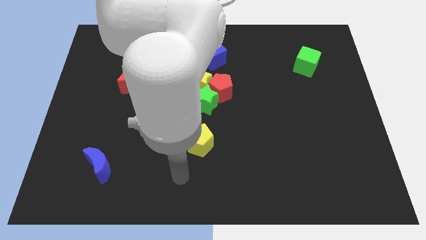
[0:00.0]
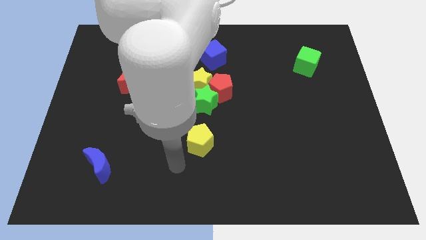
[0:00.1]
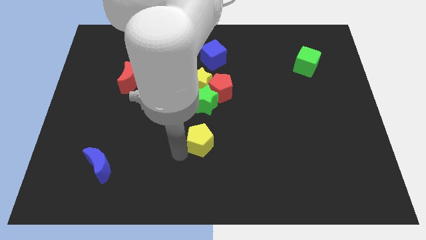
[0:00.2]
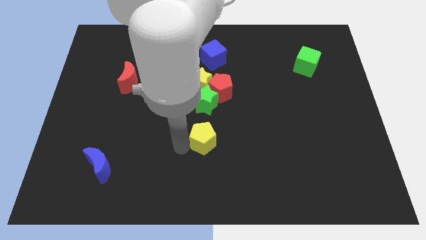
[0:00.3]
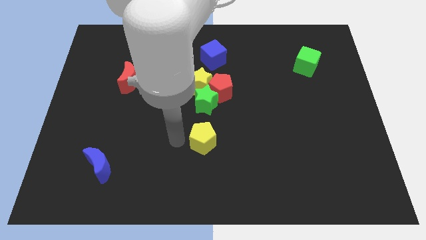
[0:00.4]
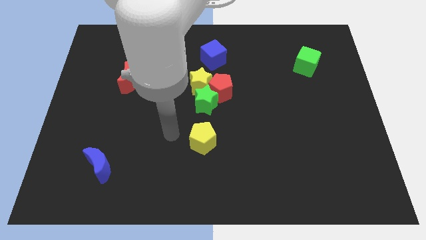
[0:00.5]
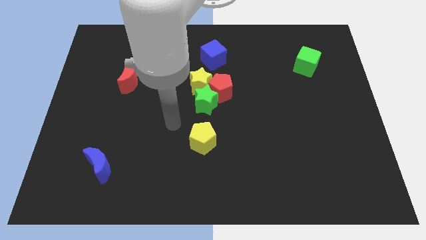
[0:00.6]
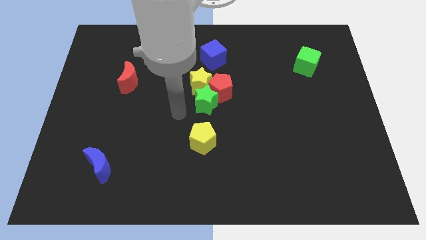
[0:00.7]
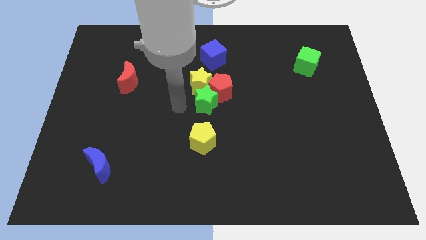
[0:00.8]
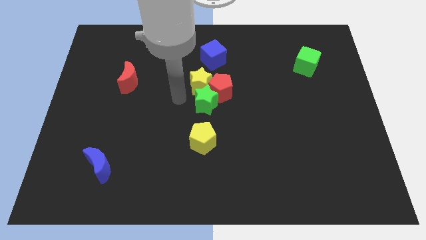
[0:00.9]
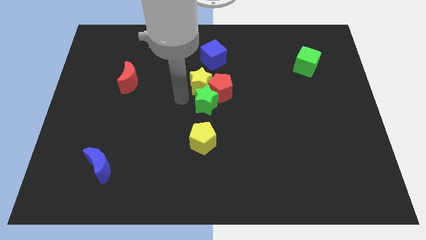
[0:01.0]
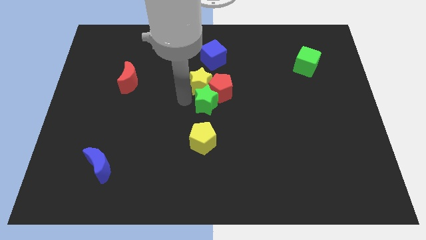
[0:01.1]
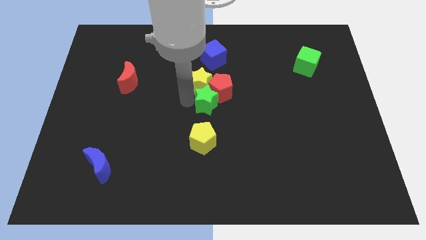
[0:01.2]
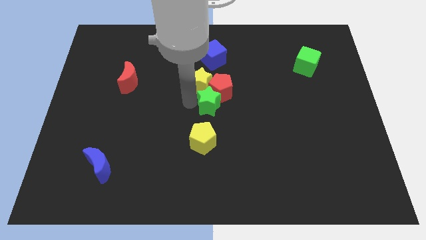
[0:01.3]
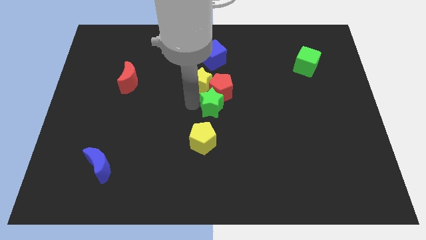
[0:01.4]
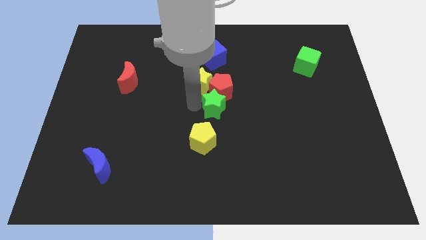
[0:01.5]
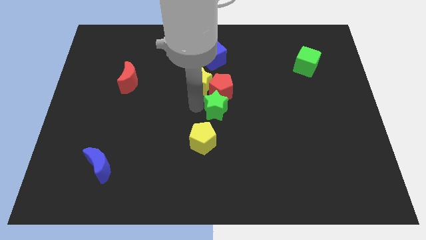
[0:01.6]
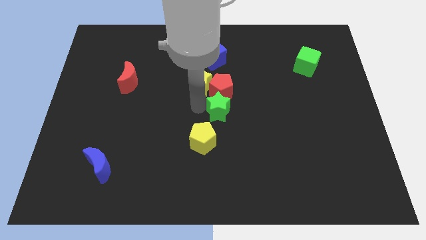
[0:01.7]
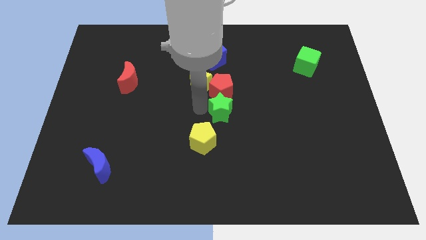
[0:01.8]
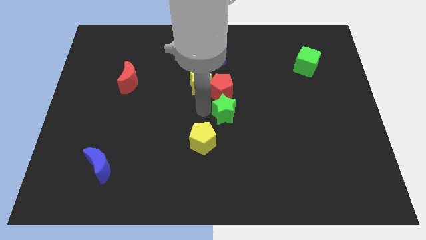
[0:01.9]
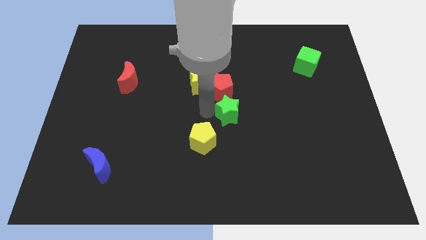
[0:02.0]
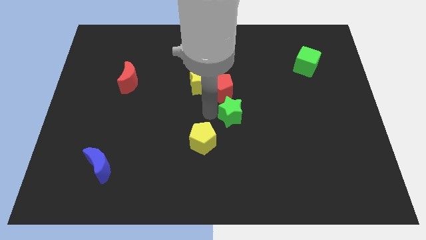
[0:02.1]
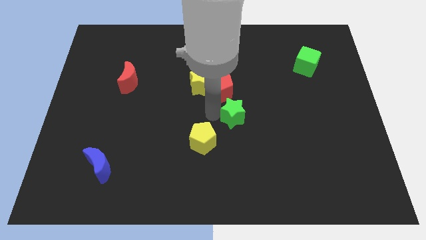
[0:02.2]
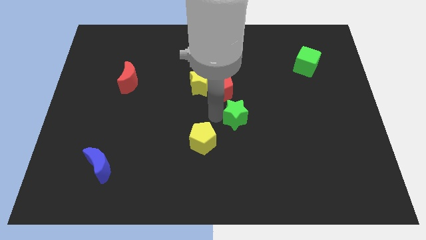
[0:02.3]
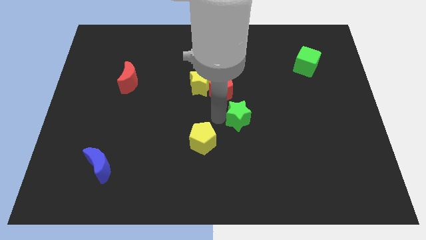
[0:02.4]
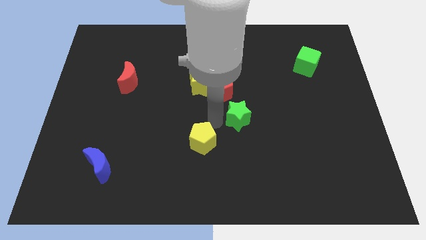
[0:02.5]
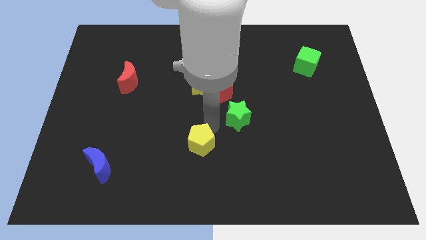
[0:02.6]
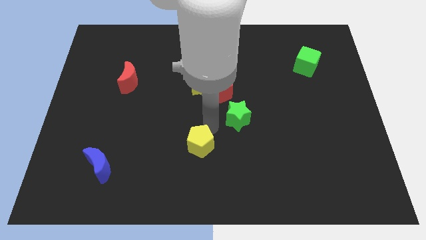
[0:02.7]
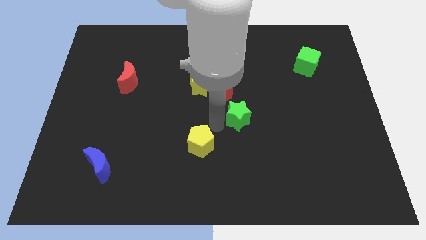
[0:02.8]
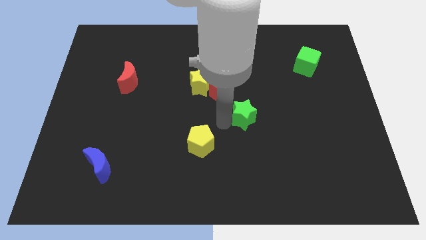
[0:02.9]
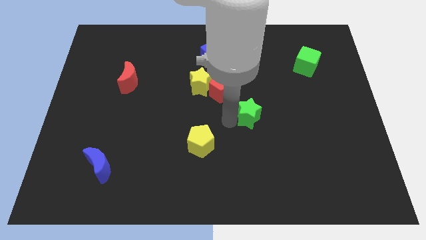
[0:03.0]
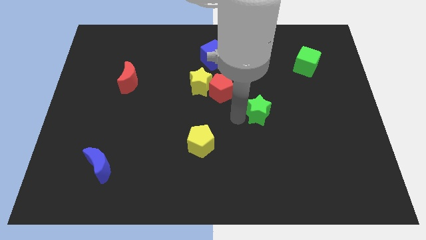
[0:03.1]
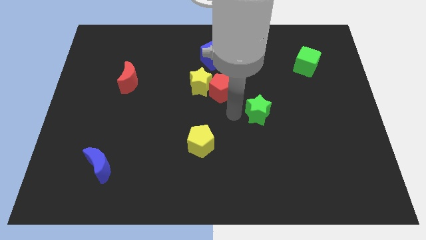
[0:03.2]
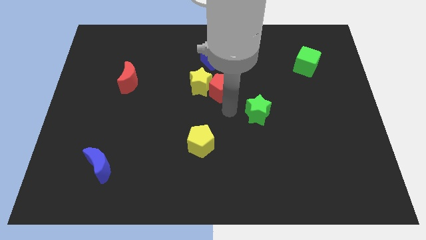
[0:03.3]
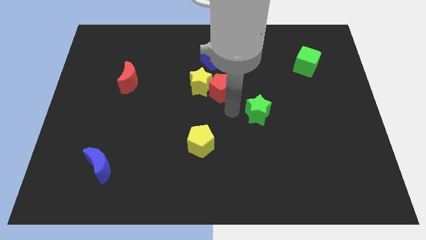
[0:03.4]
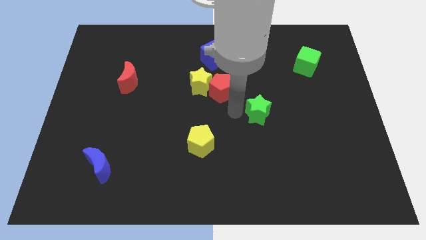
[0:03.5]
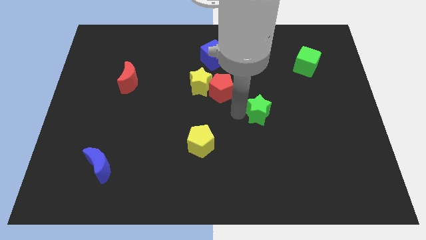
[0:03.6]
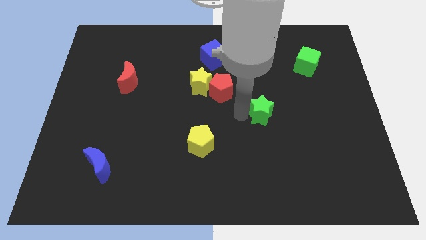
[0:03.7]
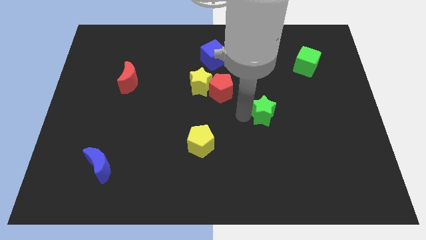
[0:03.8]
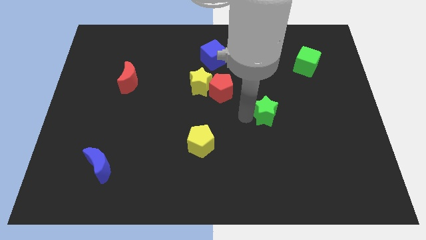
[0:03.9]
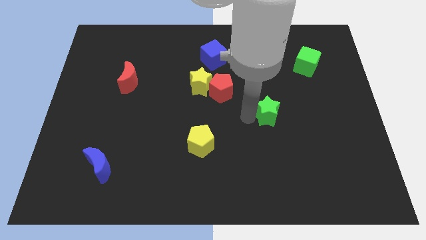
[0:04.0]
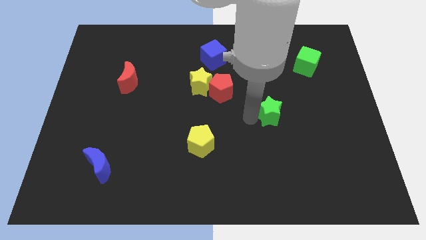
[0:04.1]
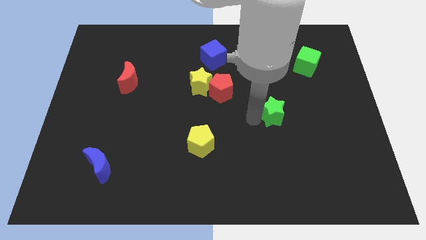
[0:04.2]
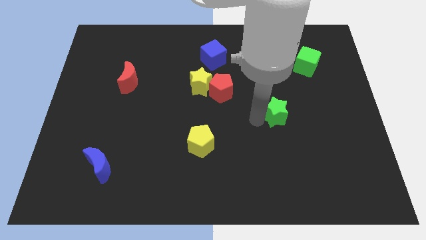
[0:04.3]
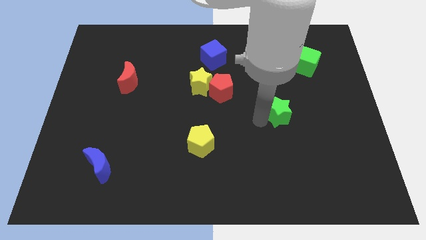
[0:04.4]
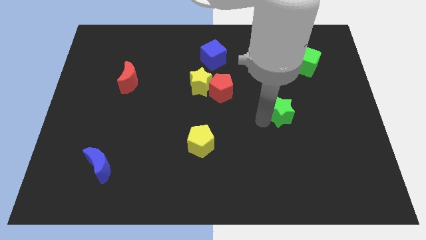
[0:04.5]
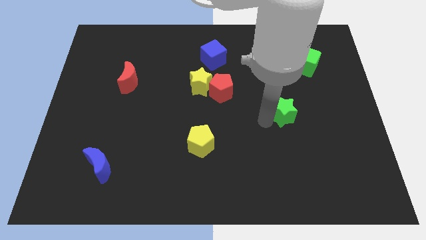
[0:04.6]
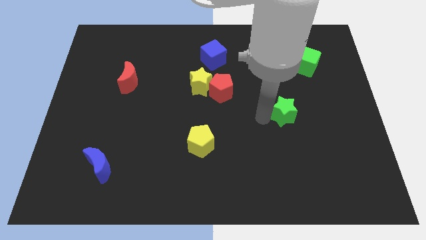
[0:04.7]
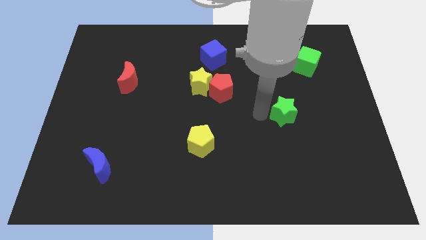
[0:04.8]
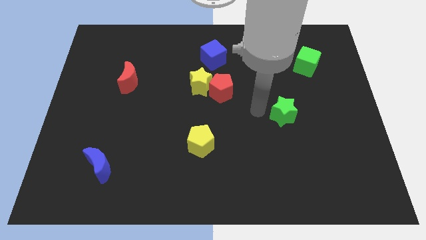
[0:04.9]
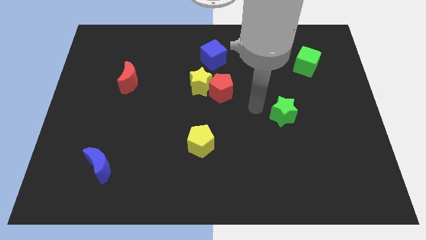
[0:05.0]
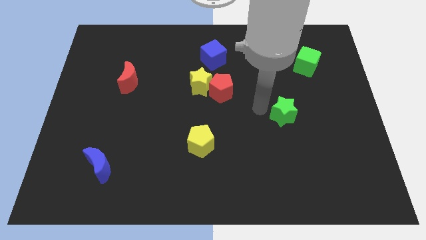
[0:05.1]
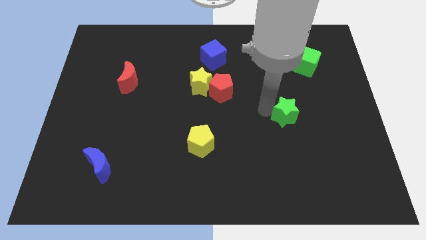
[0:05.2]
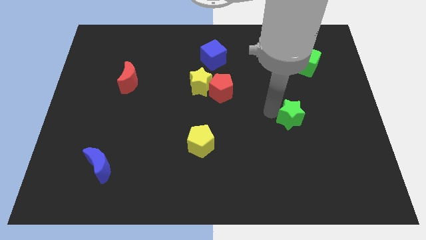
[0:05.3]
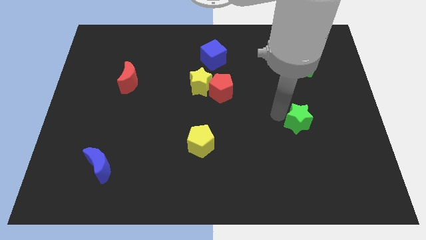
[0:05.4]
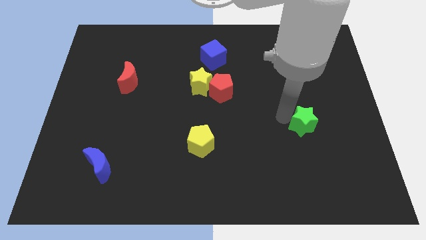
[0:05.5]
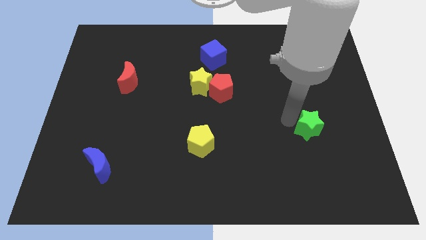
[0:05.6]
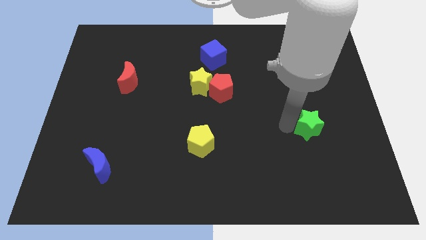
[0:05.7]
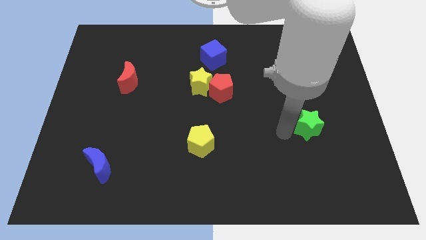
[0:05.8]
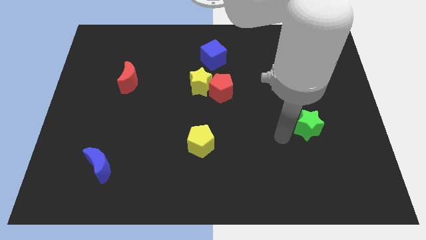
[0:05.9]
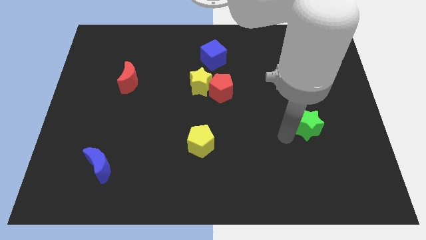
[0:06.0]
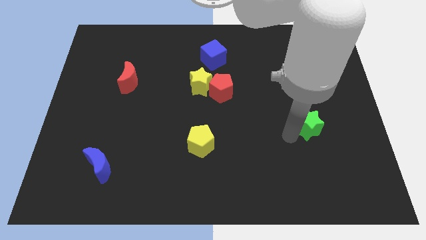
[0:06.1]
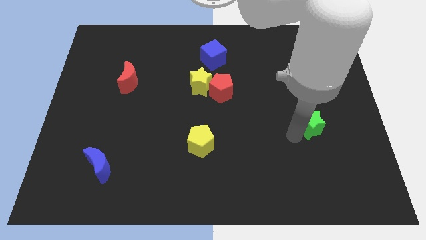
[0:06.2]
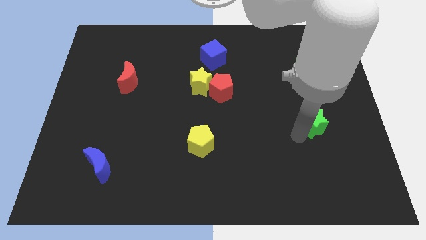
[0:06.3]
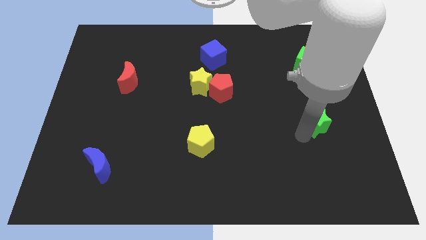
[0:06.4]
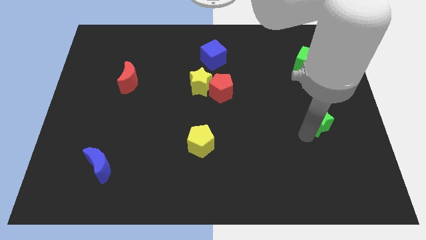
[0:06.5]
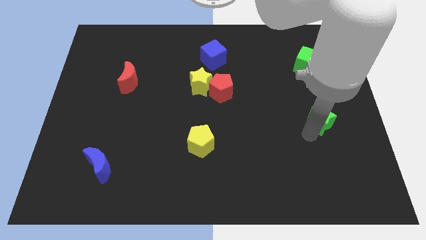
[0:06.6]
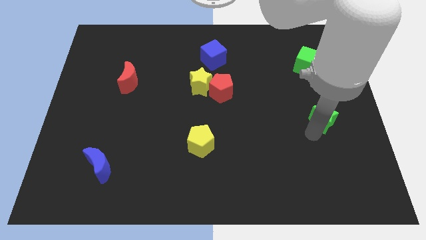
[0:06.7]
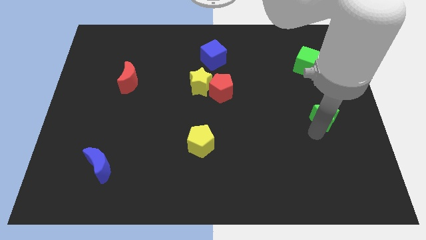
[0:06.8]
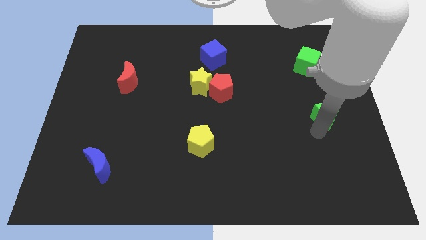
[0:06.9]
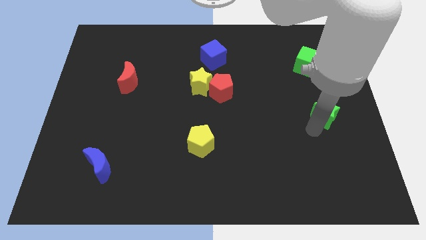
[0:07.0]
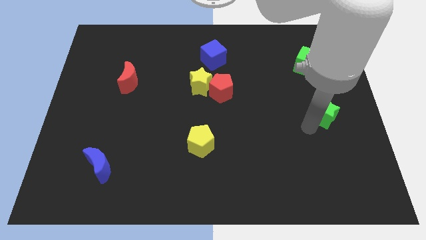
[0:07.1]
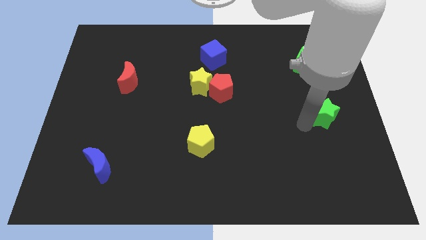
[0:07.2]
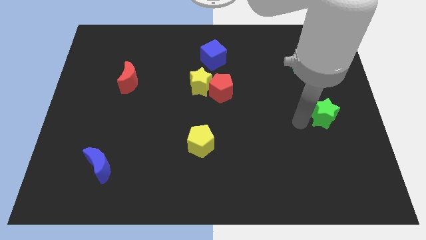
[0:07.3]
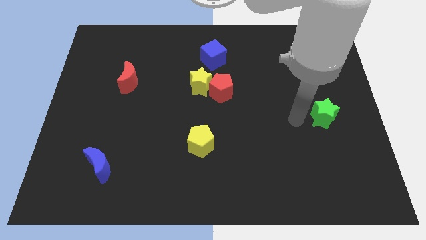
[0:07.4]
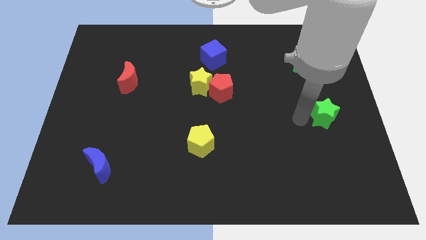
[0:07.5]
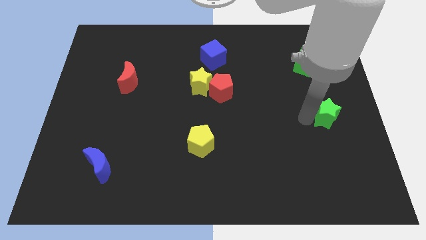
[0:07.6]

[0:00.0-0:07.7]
slide the green star to the right side of the board
